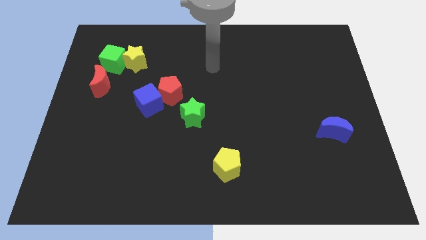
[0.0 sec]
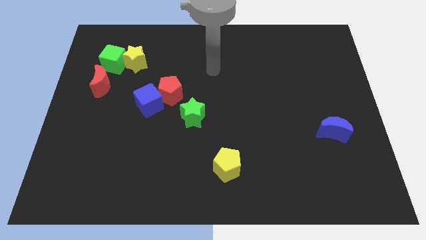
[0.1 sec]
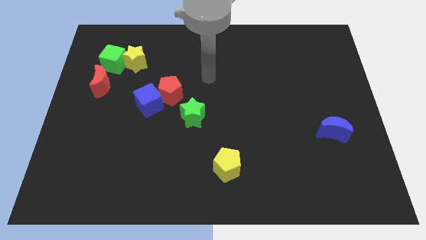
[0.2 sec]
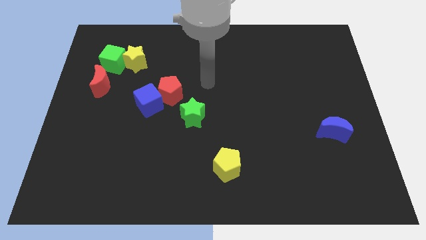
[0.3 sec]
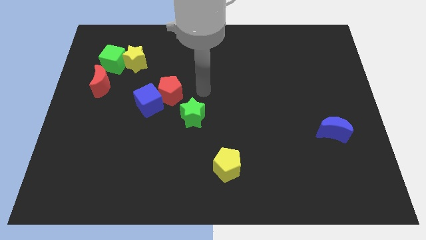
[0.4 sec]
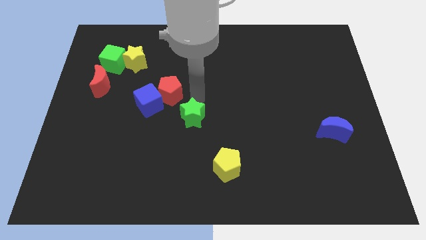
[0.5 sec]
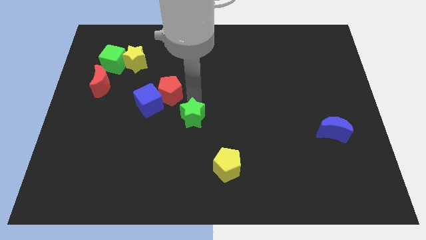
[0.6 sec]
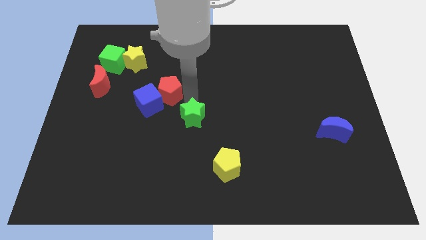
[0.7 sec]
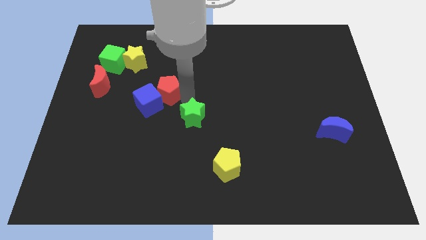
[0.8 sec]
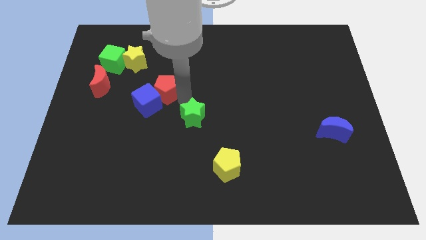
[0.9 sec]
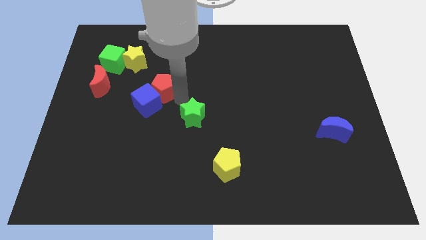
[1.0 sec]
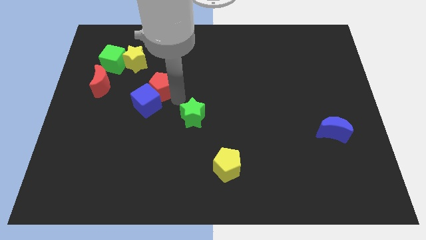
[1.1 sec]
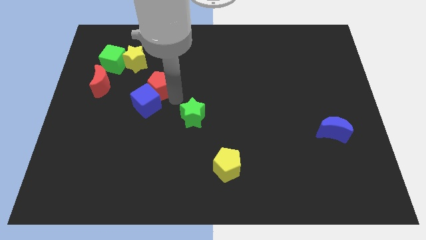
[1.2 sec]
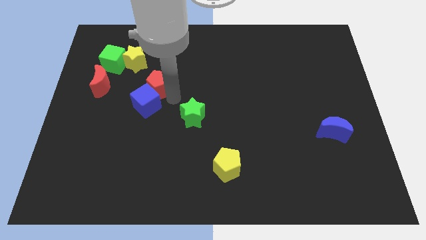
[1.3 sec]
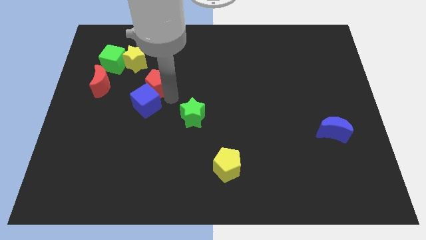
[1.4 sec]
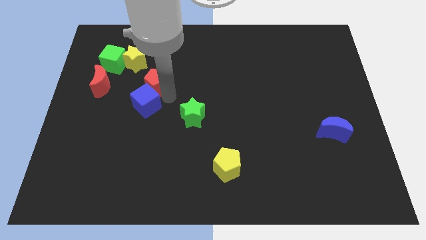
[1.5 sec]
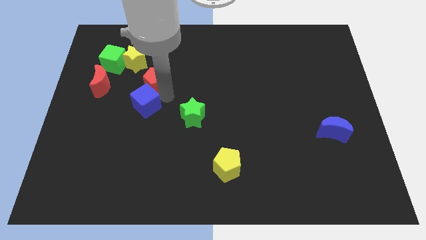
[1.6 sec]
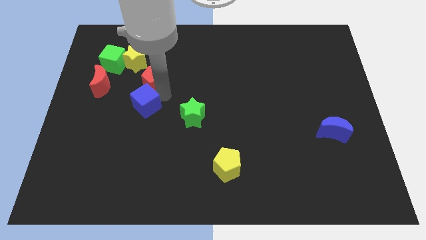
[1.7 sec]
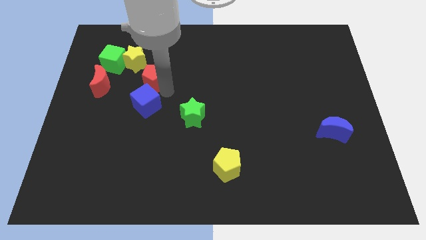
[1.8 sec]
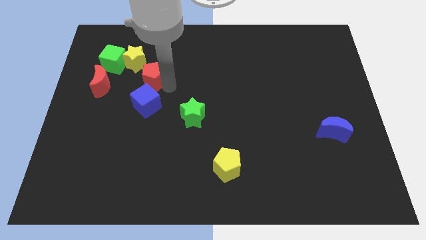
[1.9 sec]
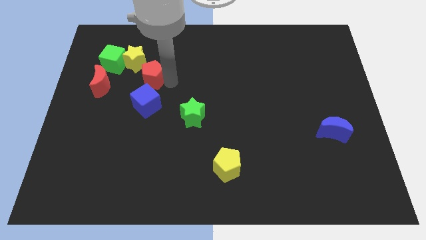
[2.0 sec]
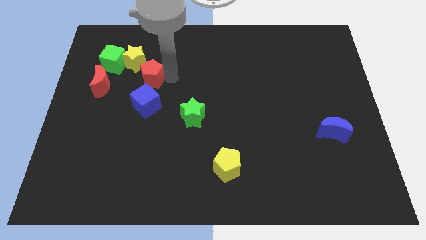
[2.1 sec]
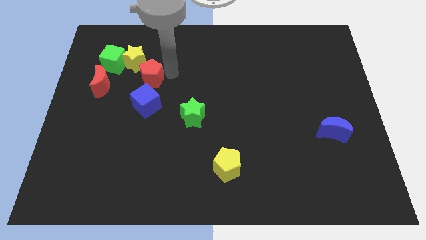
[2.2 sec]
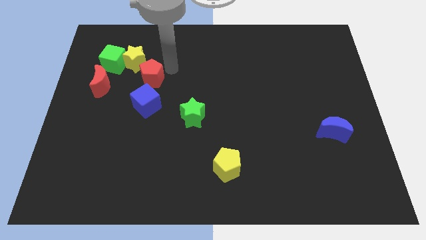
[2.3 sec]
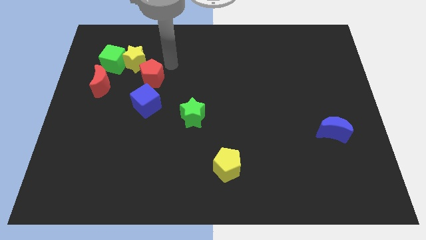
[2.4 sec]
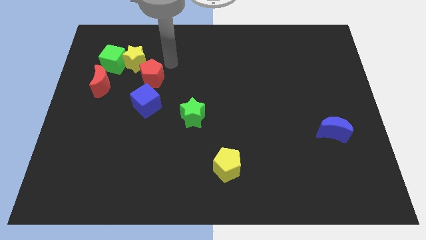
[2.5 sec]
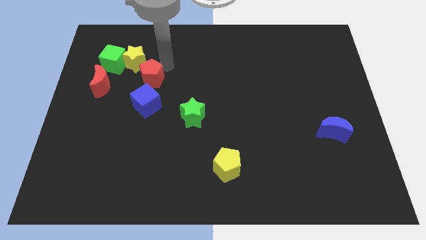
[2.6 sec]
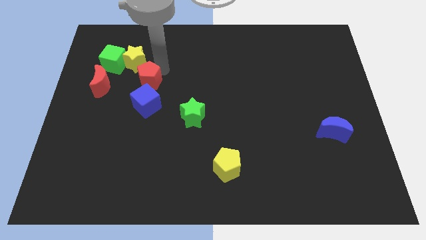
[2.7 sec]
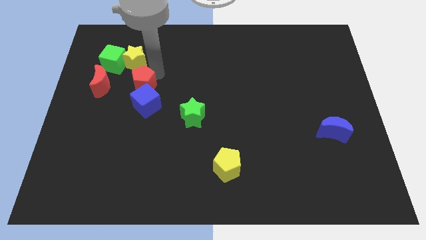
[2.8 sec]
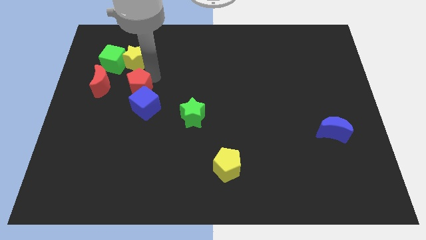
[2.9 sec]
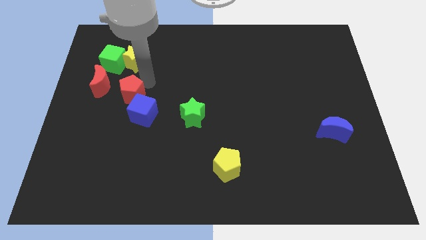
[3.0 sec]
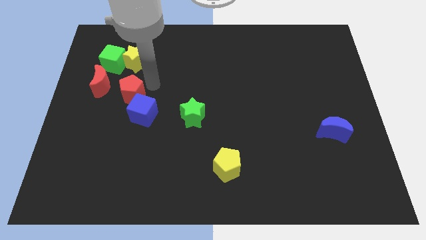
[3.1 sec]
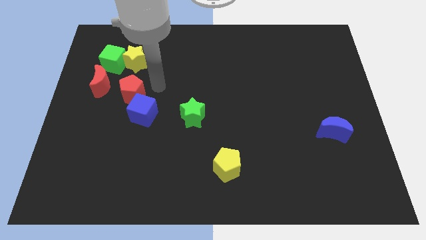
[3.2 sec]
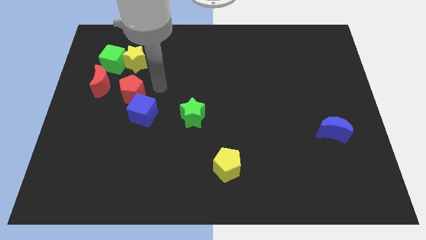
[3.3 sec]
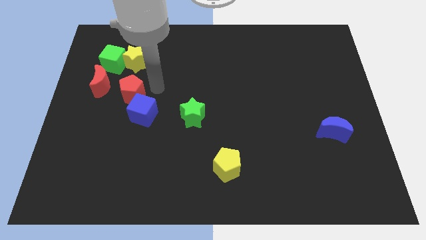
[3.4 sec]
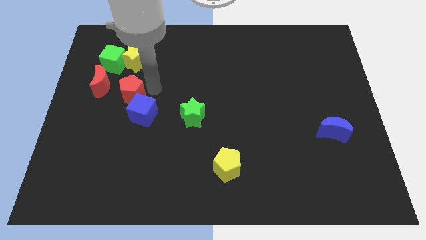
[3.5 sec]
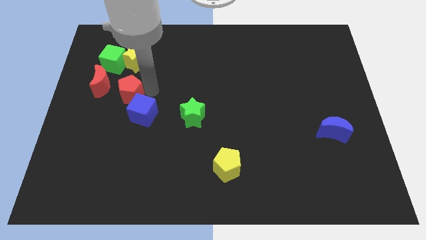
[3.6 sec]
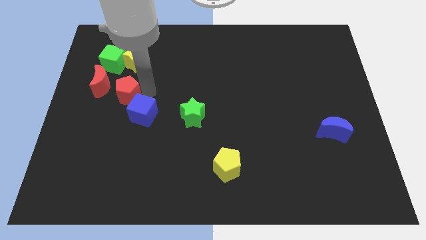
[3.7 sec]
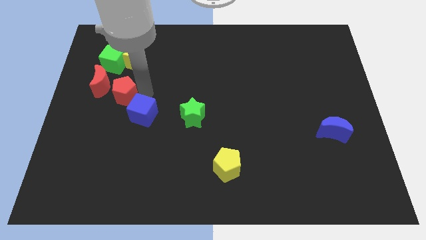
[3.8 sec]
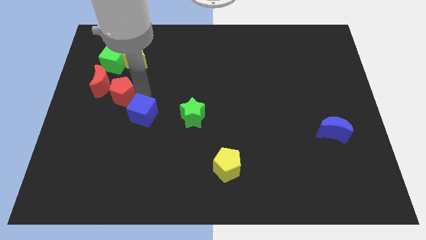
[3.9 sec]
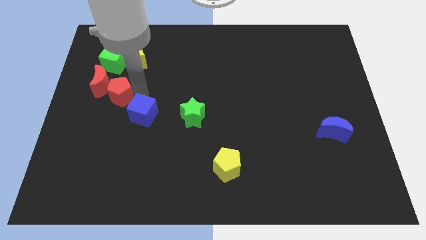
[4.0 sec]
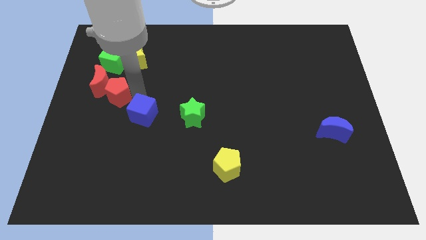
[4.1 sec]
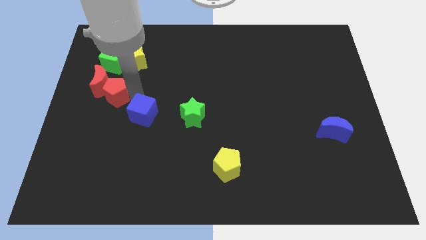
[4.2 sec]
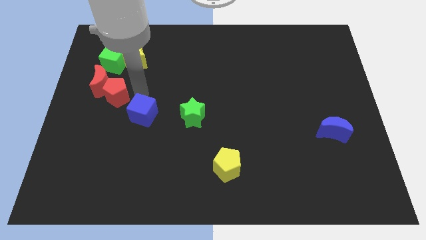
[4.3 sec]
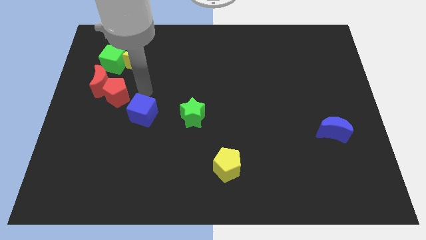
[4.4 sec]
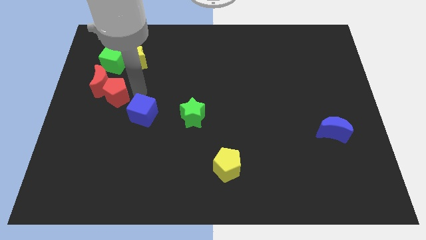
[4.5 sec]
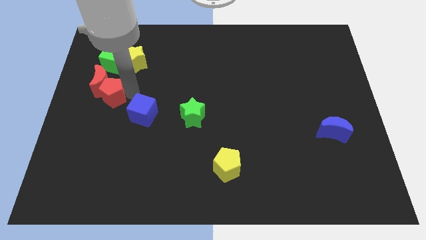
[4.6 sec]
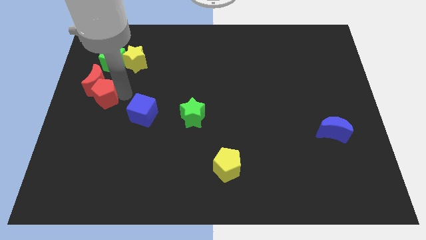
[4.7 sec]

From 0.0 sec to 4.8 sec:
push the red pentagon to the center left

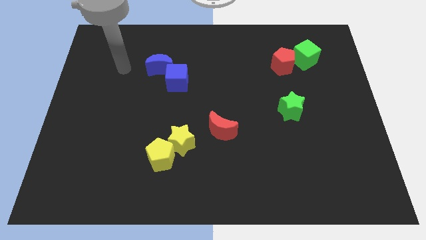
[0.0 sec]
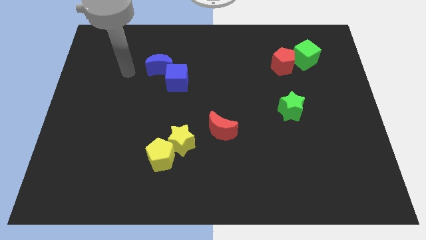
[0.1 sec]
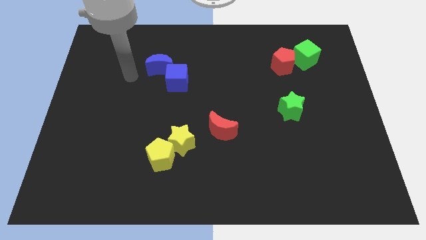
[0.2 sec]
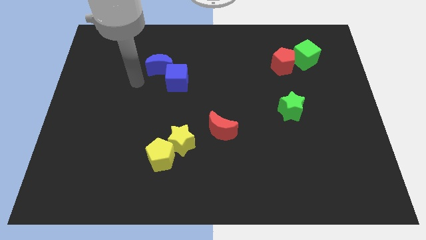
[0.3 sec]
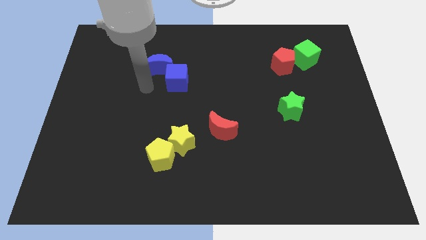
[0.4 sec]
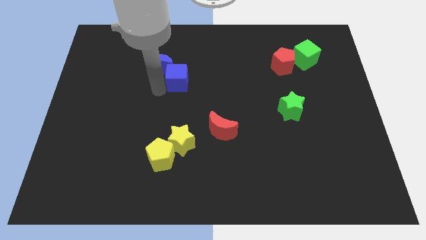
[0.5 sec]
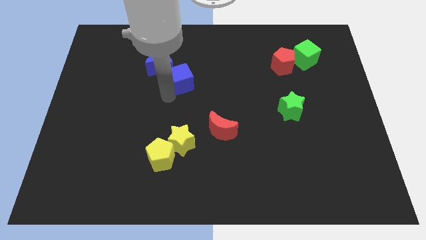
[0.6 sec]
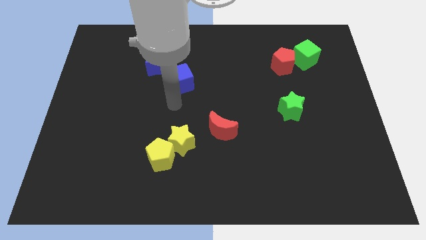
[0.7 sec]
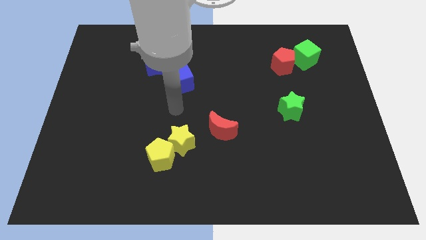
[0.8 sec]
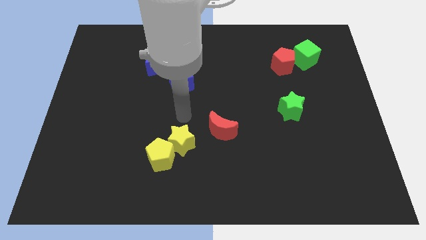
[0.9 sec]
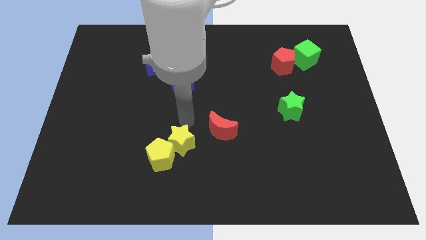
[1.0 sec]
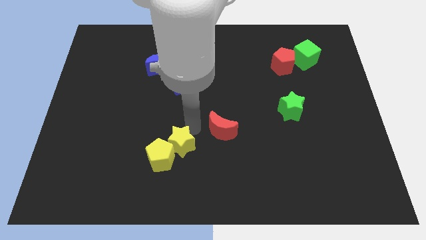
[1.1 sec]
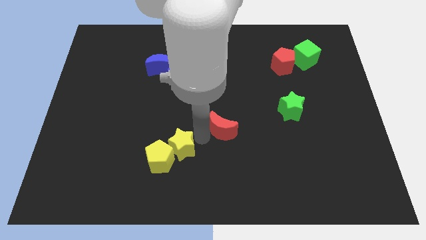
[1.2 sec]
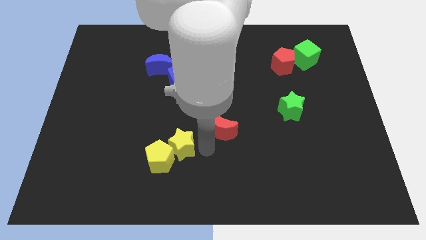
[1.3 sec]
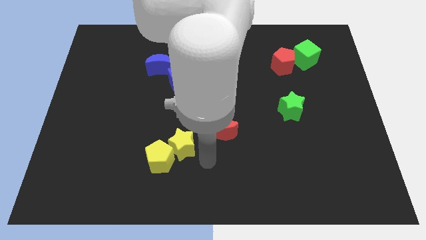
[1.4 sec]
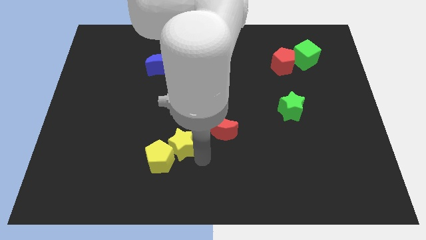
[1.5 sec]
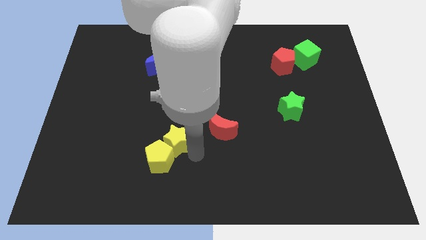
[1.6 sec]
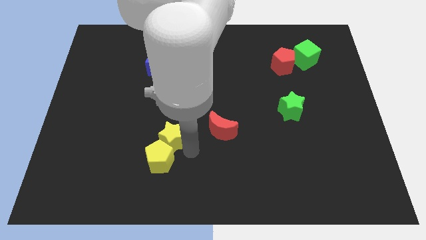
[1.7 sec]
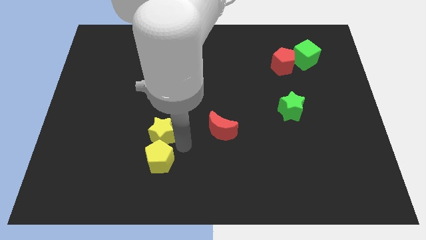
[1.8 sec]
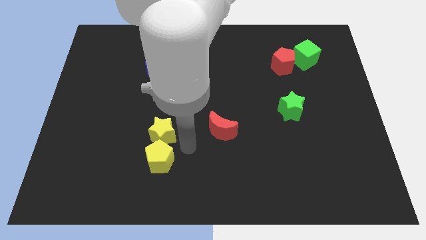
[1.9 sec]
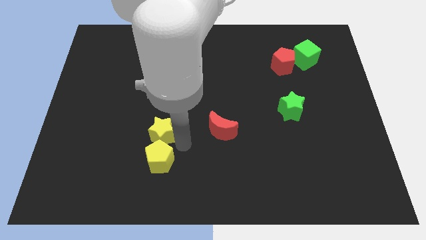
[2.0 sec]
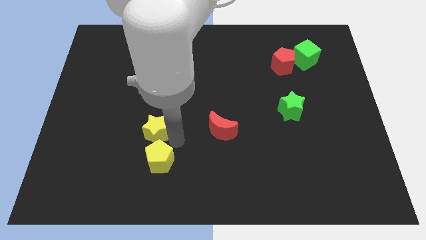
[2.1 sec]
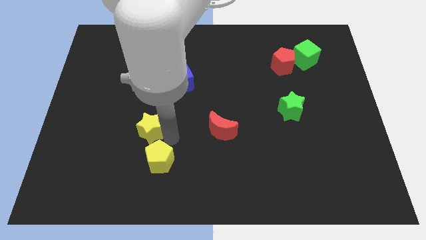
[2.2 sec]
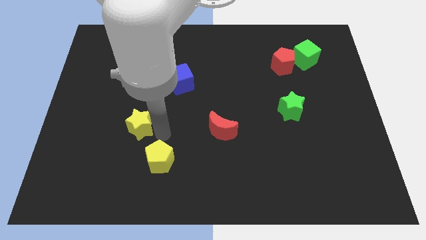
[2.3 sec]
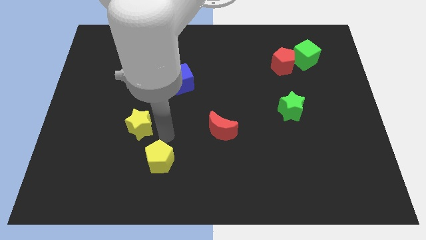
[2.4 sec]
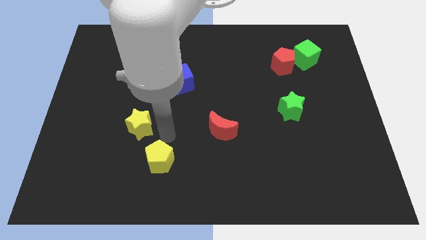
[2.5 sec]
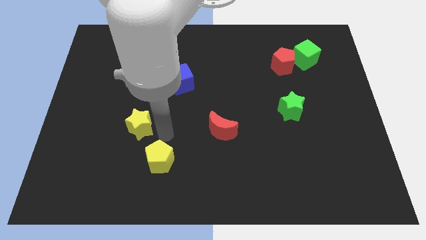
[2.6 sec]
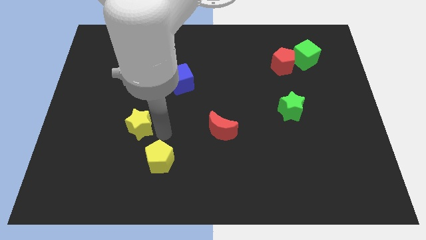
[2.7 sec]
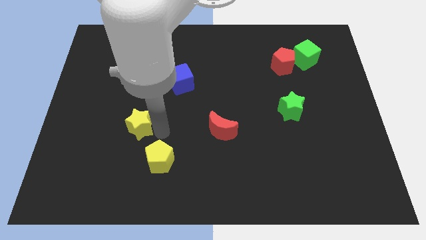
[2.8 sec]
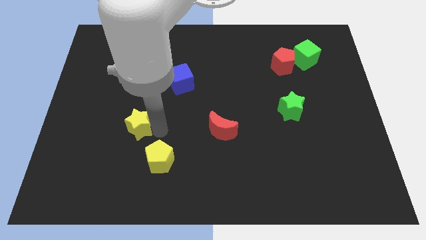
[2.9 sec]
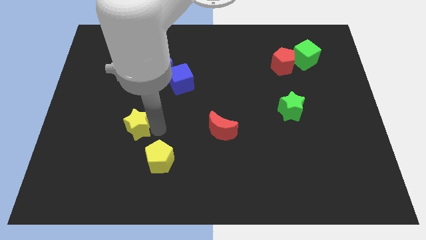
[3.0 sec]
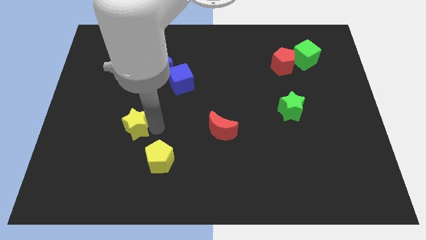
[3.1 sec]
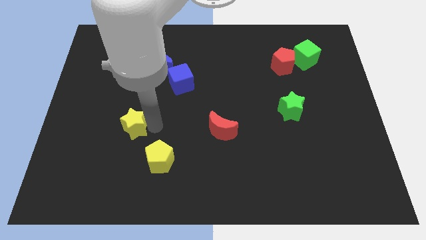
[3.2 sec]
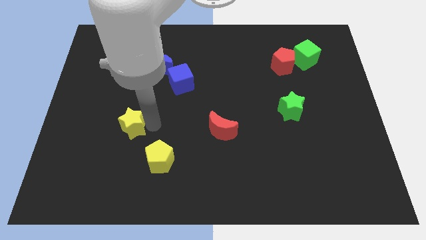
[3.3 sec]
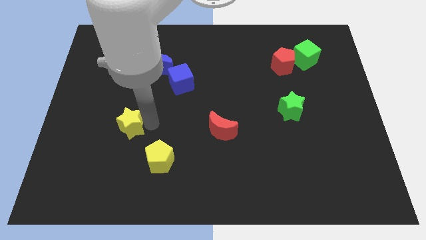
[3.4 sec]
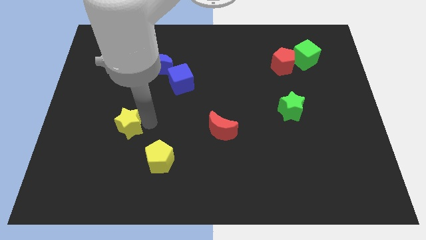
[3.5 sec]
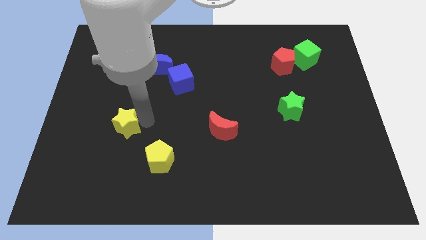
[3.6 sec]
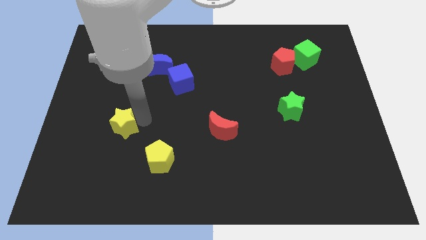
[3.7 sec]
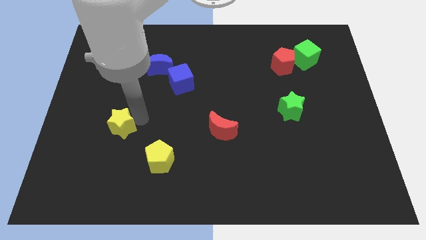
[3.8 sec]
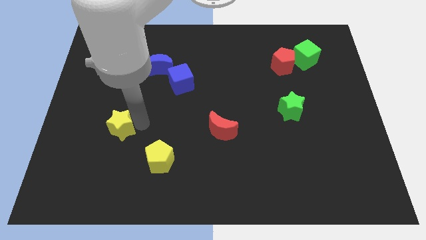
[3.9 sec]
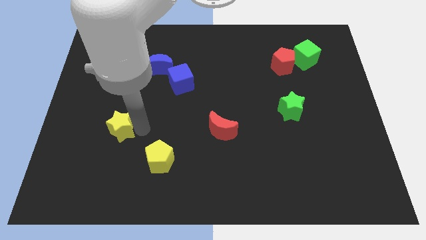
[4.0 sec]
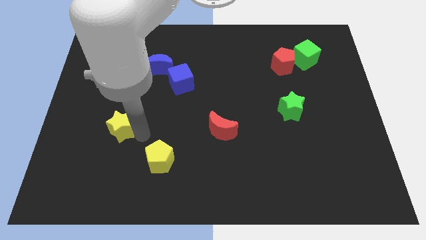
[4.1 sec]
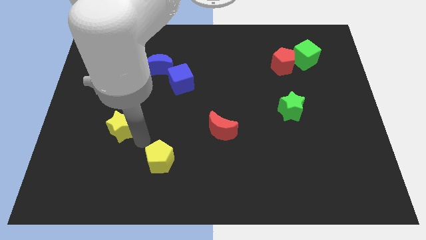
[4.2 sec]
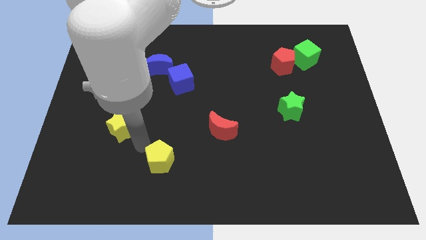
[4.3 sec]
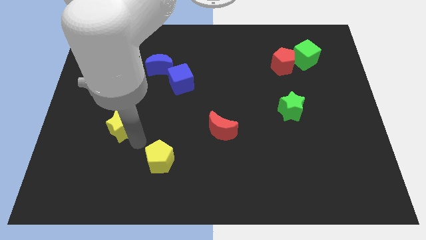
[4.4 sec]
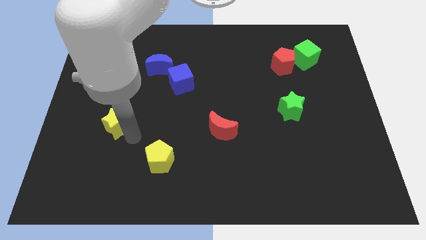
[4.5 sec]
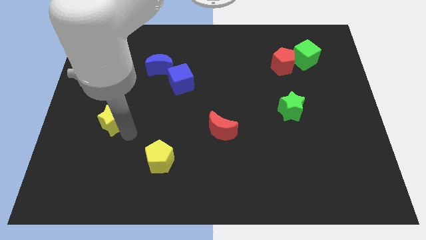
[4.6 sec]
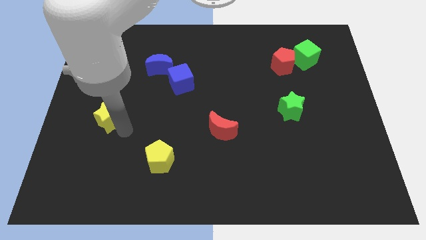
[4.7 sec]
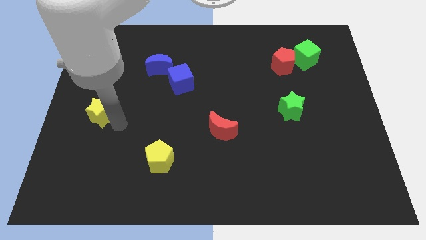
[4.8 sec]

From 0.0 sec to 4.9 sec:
push the yellow star to the left side
